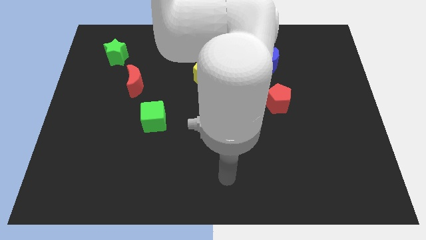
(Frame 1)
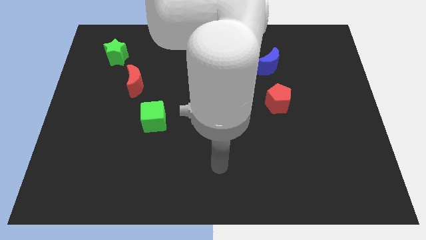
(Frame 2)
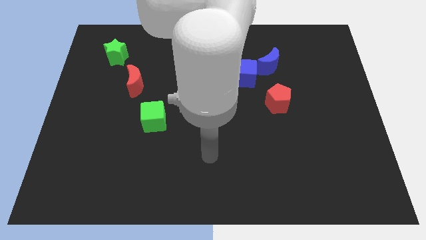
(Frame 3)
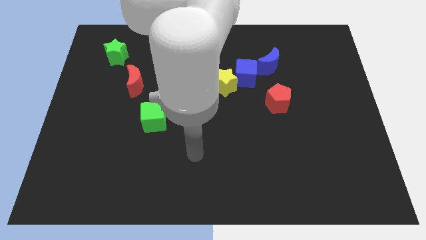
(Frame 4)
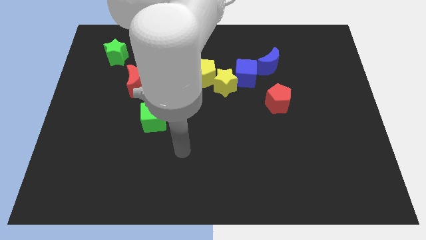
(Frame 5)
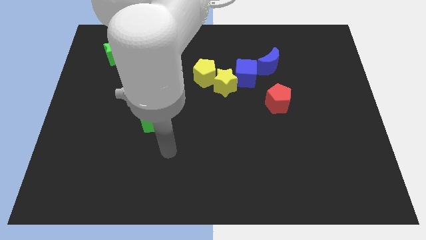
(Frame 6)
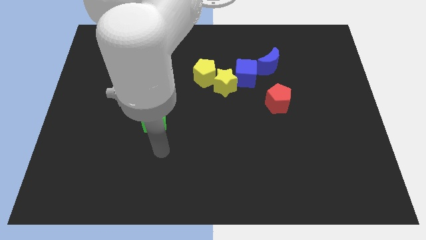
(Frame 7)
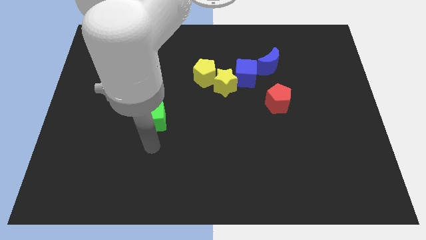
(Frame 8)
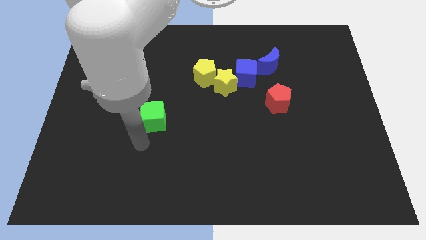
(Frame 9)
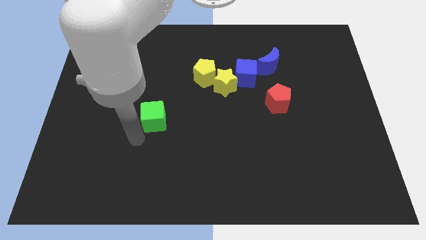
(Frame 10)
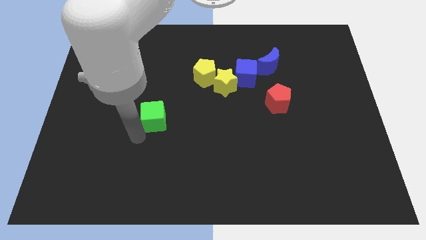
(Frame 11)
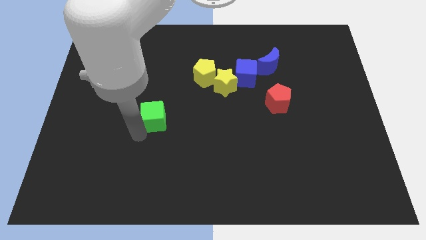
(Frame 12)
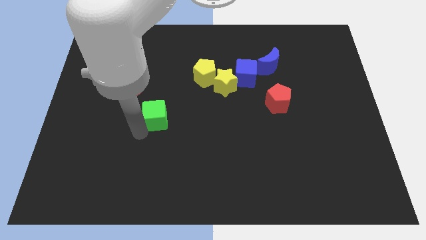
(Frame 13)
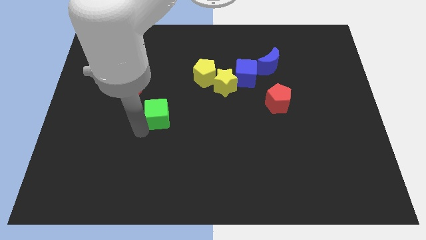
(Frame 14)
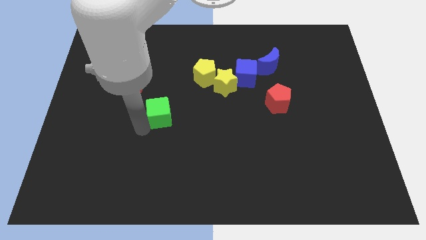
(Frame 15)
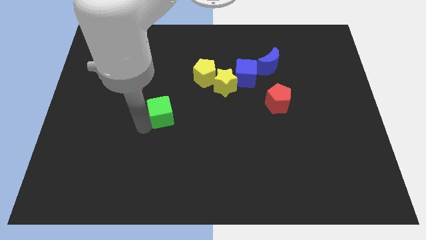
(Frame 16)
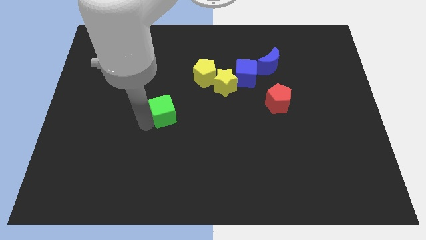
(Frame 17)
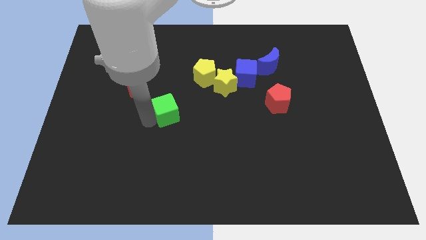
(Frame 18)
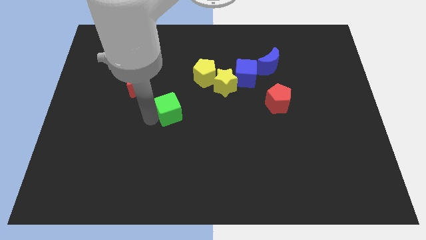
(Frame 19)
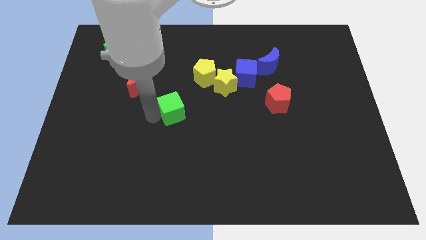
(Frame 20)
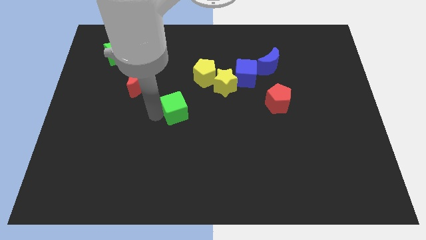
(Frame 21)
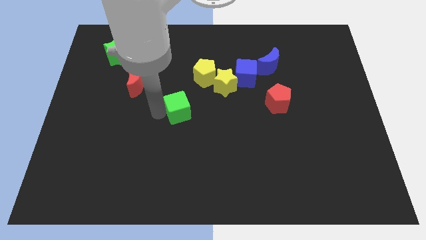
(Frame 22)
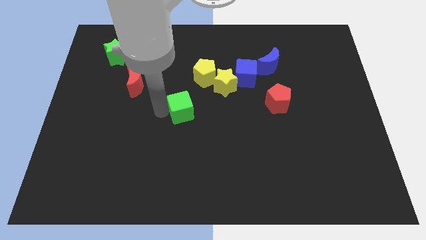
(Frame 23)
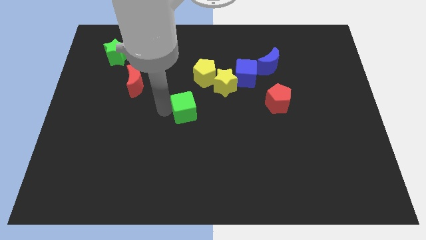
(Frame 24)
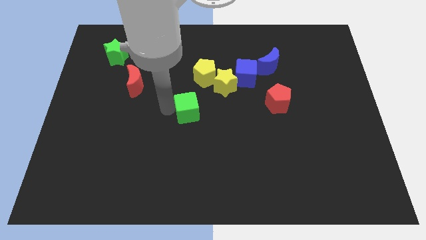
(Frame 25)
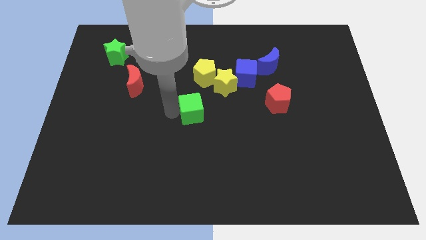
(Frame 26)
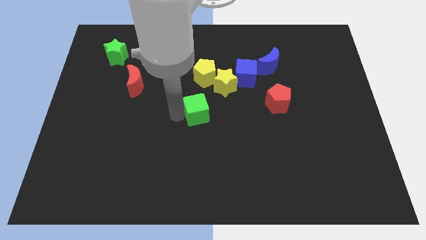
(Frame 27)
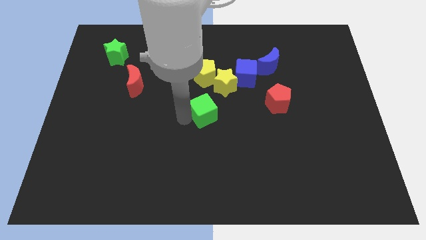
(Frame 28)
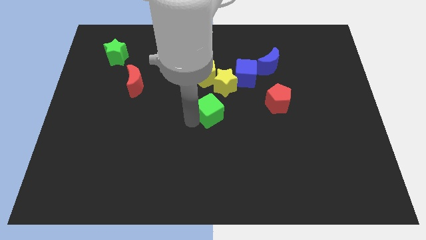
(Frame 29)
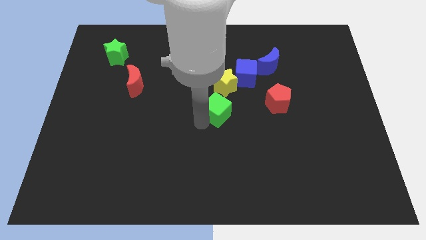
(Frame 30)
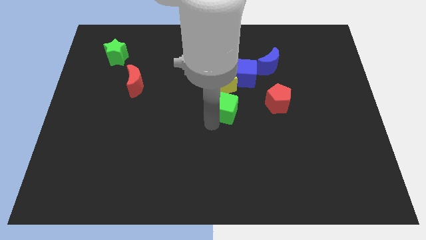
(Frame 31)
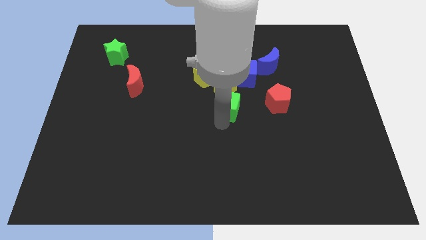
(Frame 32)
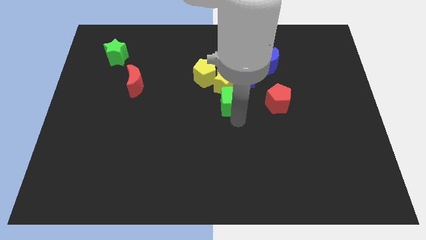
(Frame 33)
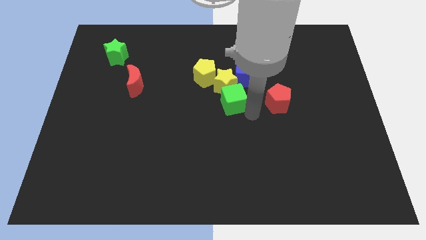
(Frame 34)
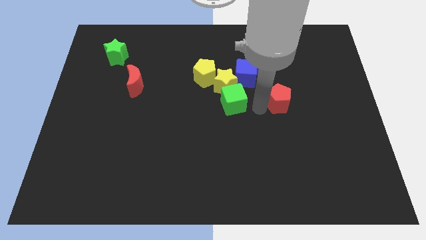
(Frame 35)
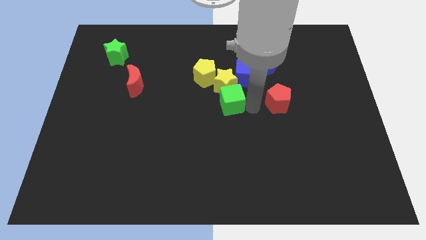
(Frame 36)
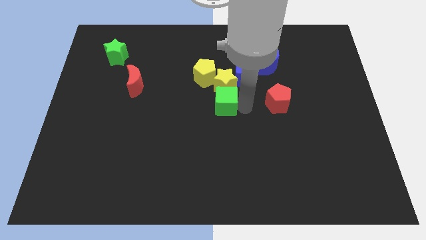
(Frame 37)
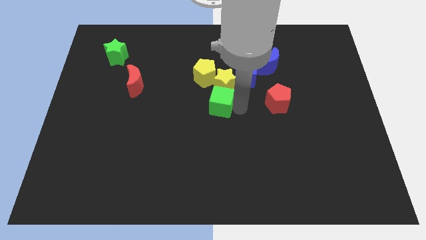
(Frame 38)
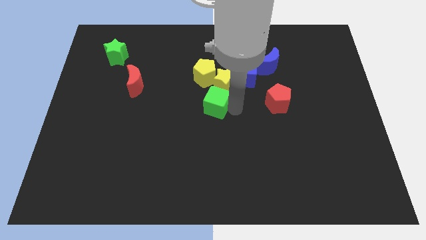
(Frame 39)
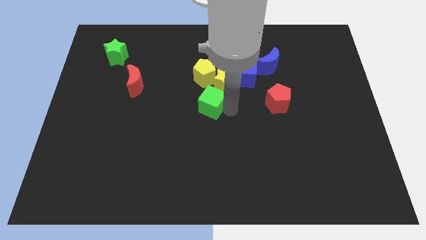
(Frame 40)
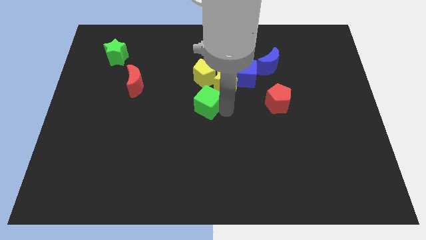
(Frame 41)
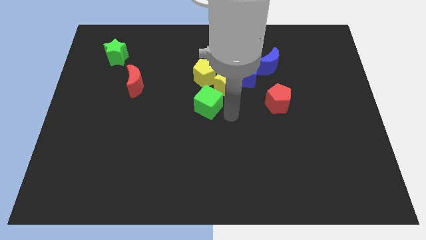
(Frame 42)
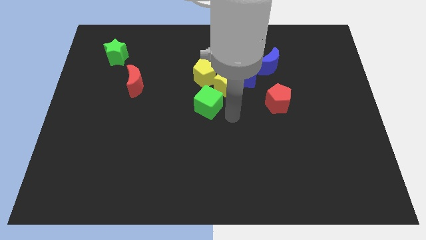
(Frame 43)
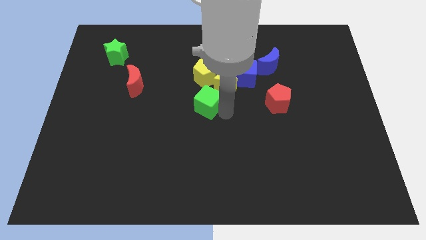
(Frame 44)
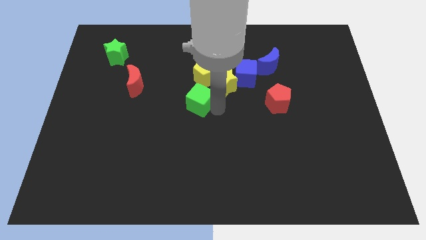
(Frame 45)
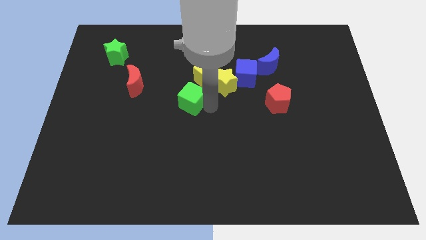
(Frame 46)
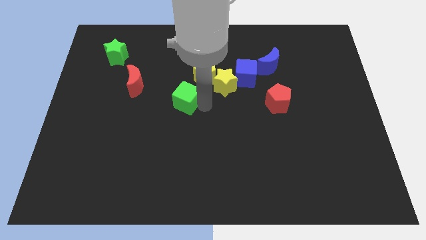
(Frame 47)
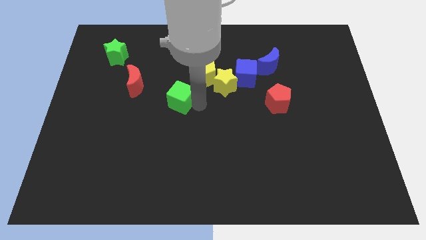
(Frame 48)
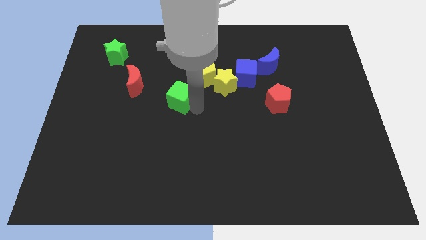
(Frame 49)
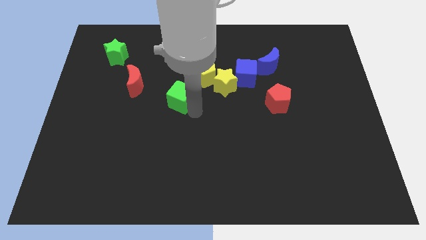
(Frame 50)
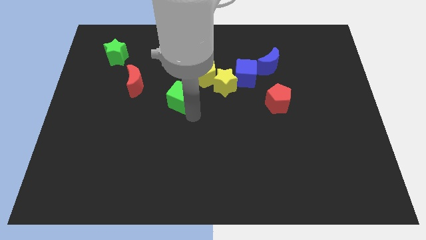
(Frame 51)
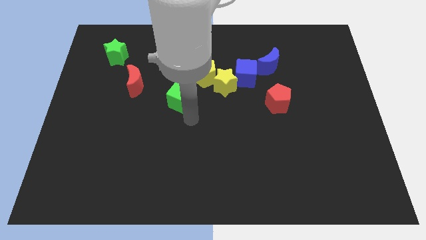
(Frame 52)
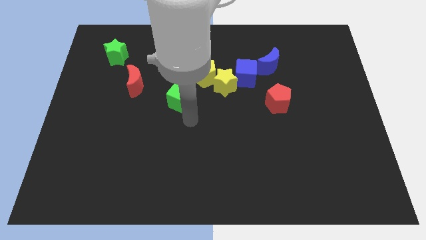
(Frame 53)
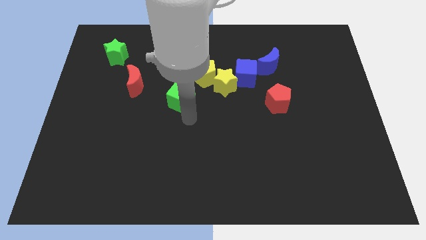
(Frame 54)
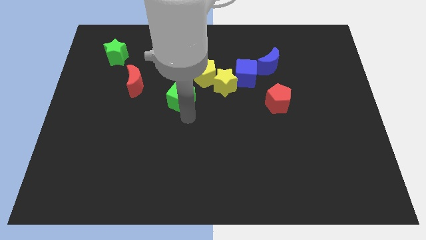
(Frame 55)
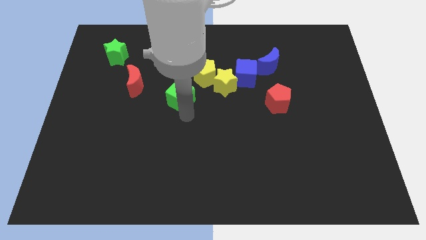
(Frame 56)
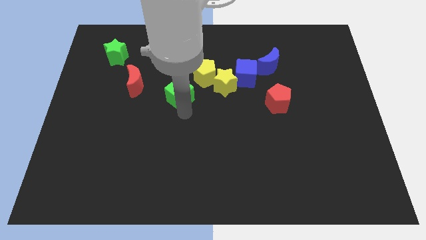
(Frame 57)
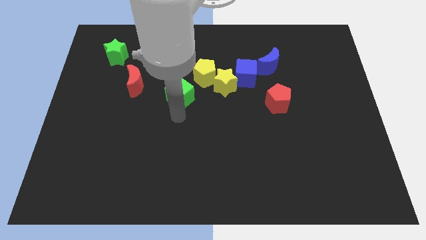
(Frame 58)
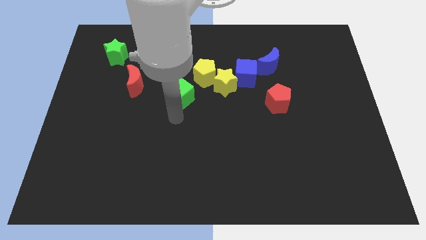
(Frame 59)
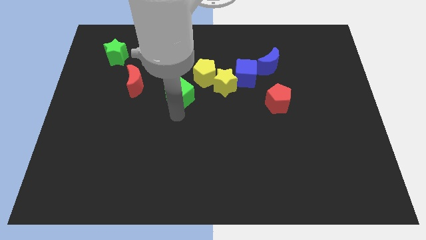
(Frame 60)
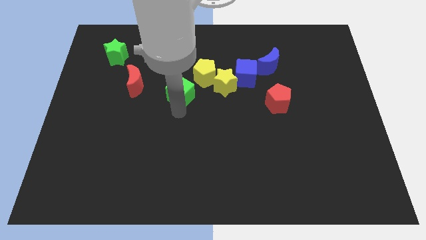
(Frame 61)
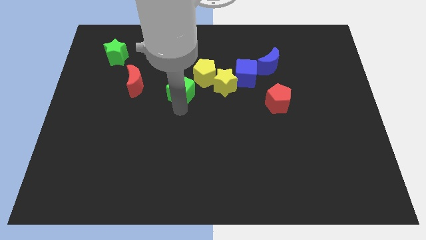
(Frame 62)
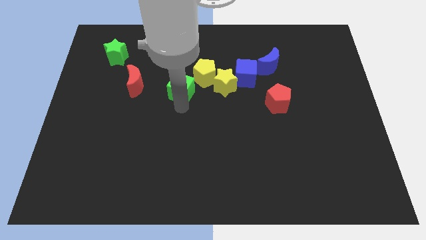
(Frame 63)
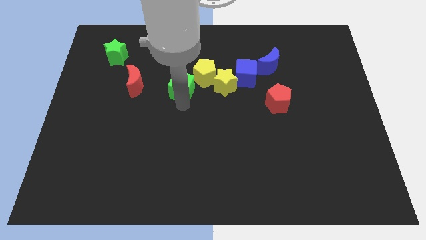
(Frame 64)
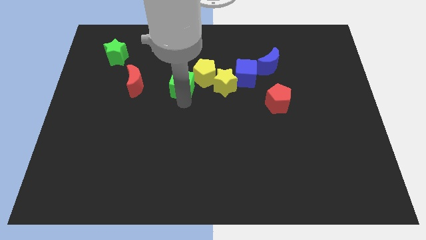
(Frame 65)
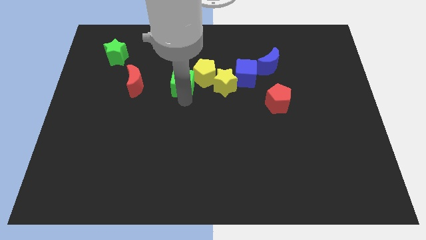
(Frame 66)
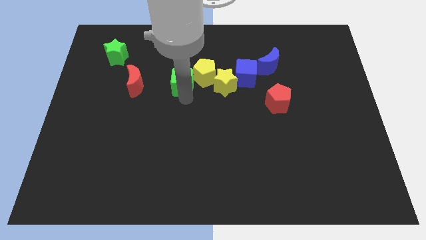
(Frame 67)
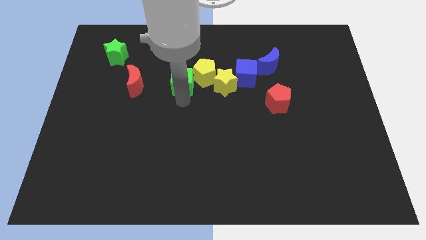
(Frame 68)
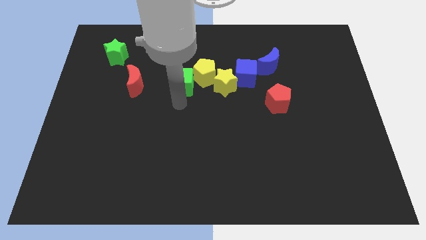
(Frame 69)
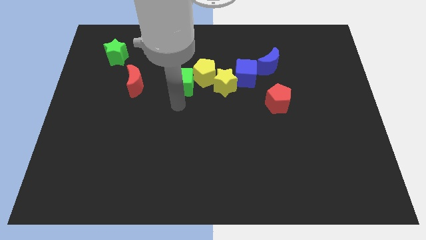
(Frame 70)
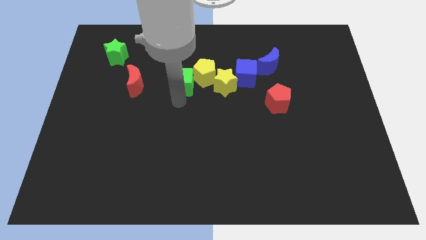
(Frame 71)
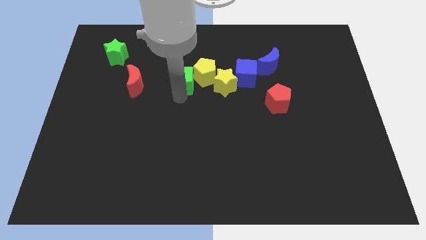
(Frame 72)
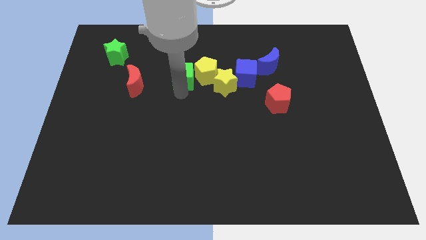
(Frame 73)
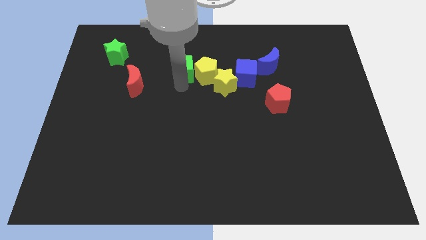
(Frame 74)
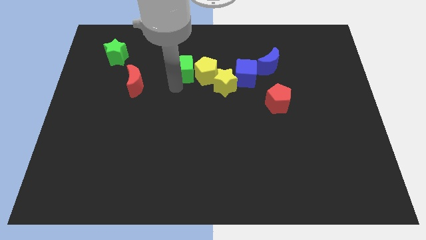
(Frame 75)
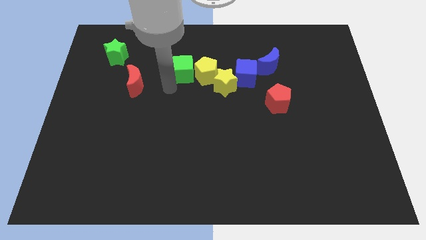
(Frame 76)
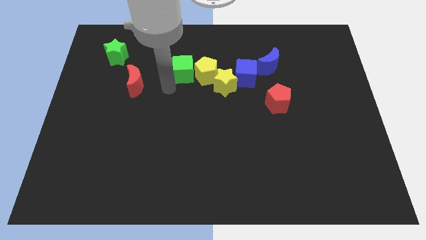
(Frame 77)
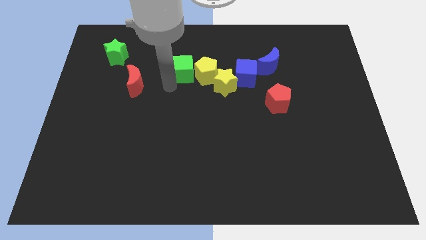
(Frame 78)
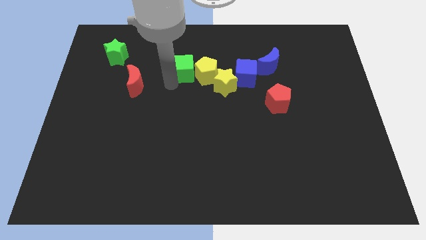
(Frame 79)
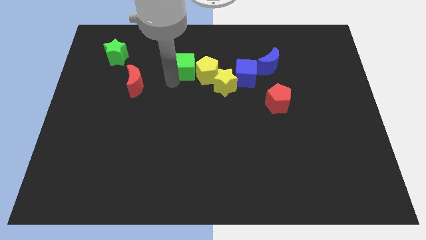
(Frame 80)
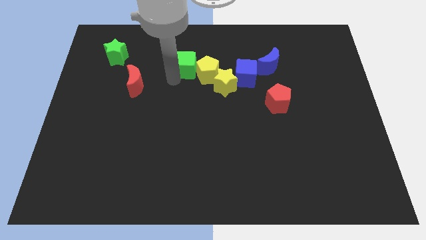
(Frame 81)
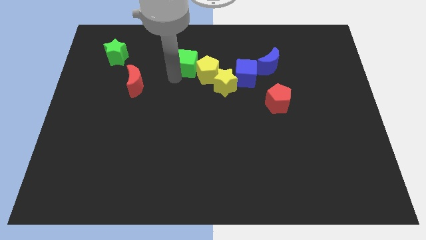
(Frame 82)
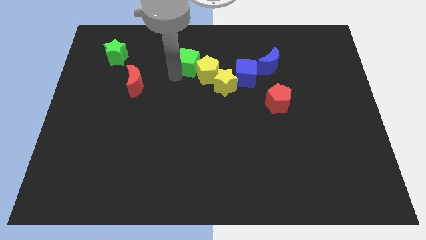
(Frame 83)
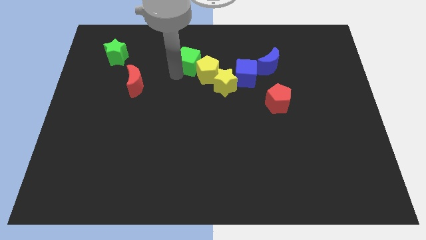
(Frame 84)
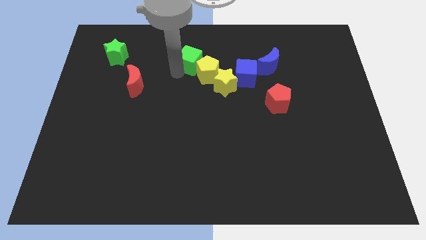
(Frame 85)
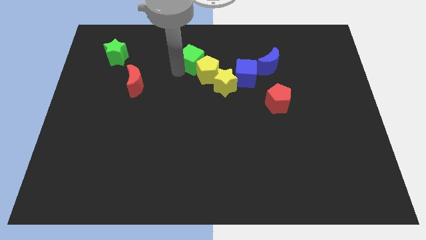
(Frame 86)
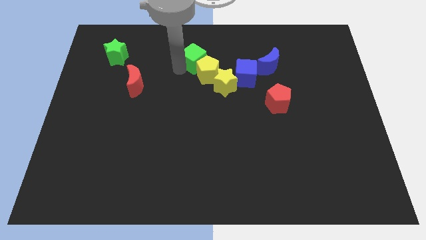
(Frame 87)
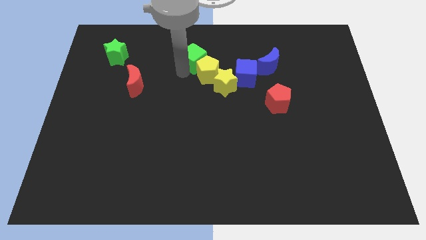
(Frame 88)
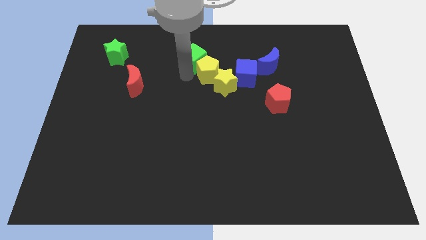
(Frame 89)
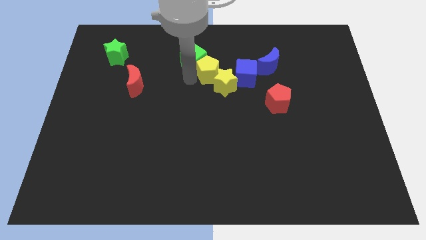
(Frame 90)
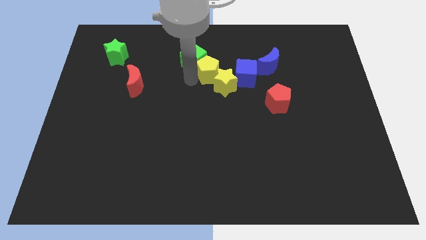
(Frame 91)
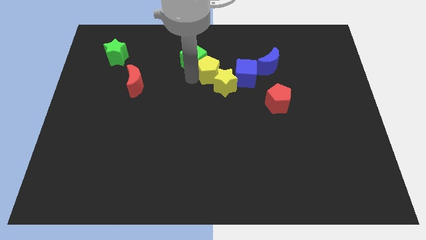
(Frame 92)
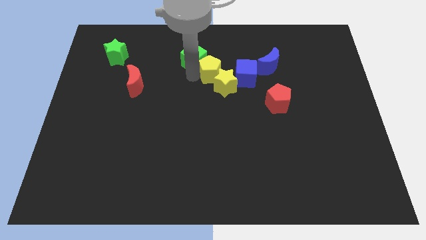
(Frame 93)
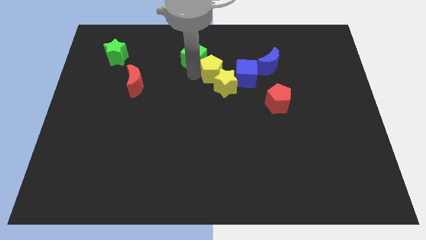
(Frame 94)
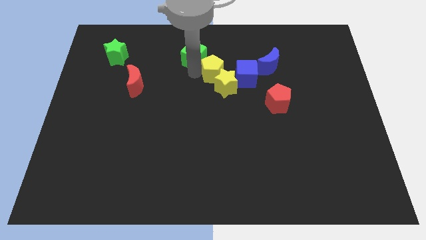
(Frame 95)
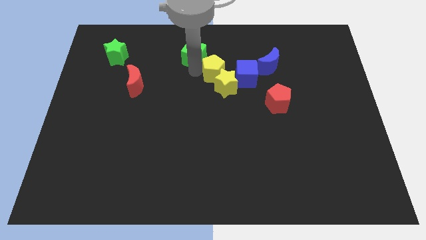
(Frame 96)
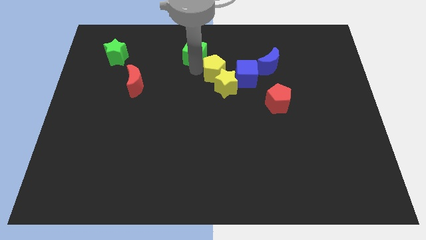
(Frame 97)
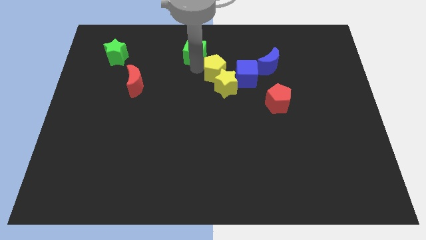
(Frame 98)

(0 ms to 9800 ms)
slide the green cube to the top
